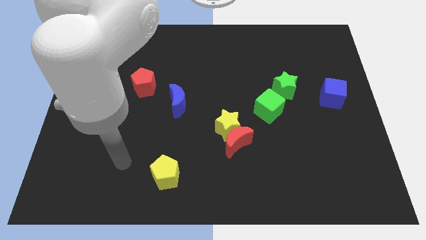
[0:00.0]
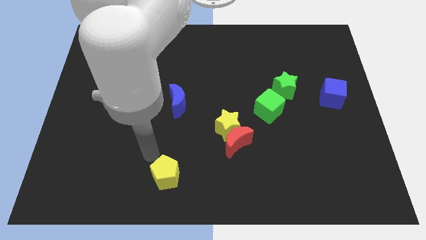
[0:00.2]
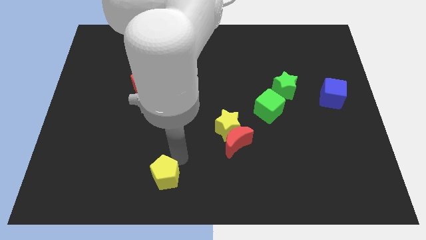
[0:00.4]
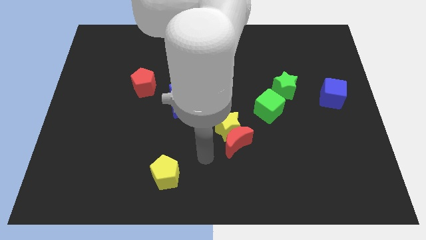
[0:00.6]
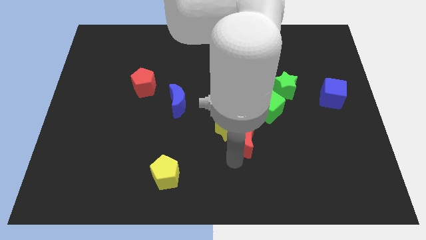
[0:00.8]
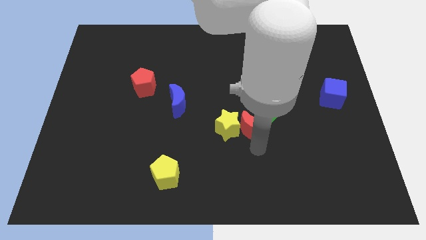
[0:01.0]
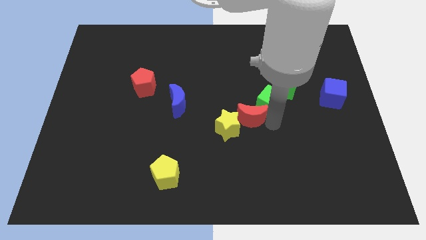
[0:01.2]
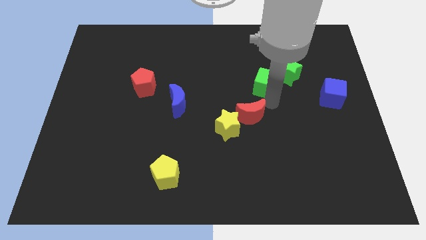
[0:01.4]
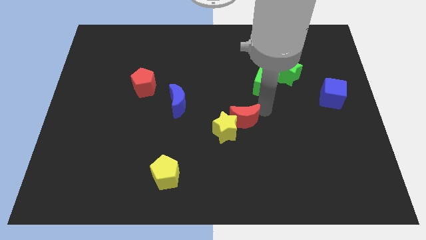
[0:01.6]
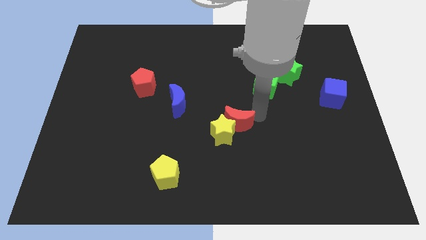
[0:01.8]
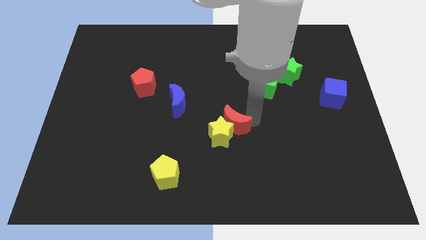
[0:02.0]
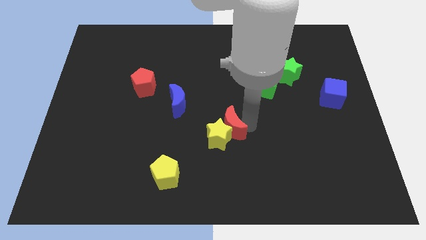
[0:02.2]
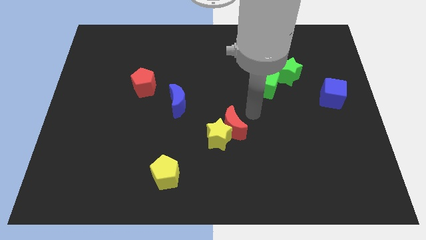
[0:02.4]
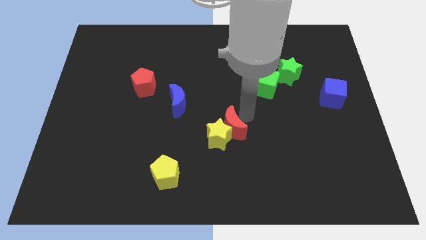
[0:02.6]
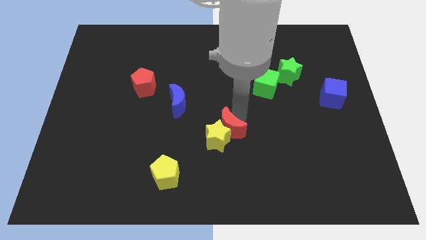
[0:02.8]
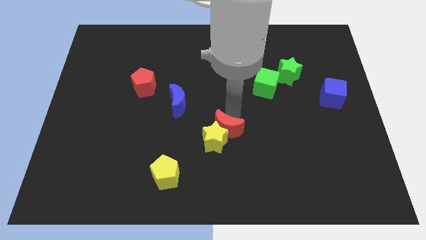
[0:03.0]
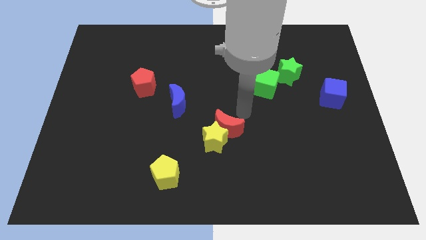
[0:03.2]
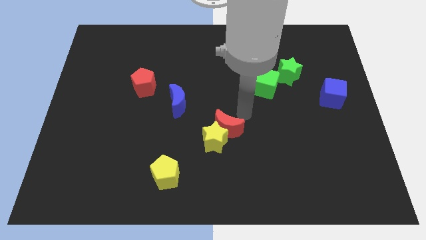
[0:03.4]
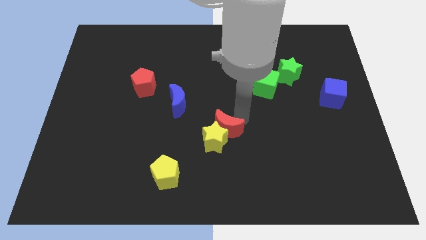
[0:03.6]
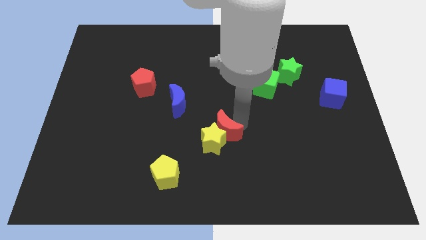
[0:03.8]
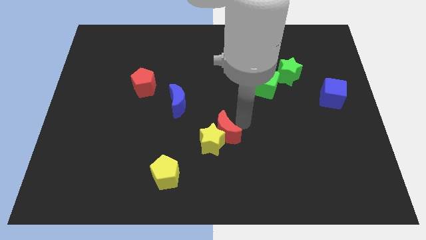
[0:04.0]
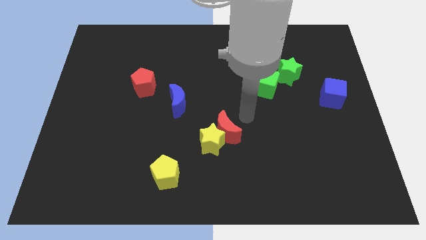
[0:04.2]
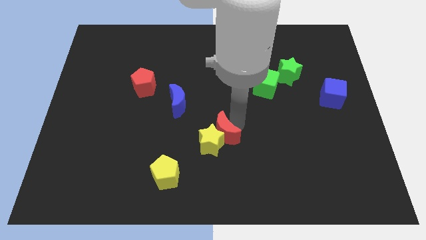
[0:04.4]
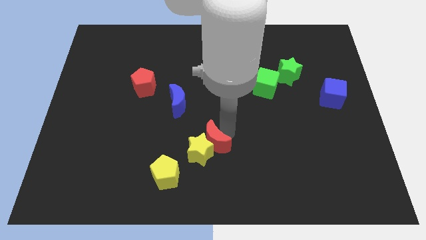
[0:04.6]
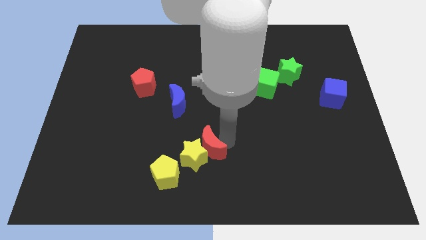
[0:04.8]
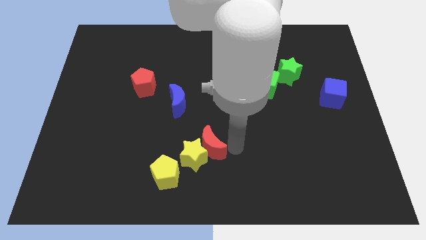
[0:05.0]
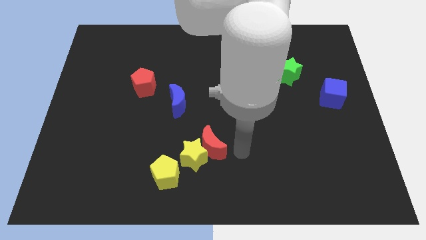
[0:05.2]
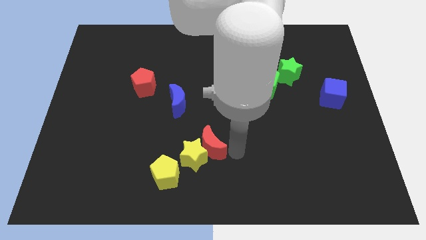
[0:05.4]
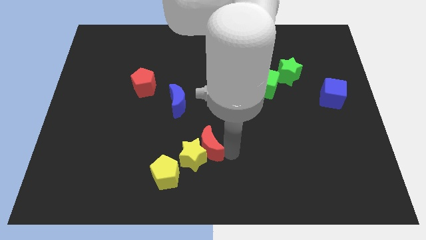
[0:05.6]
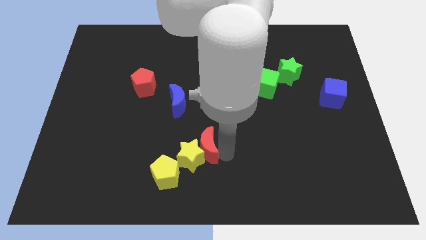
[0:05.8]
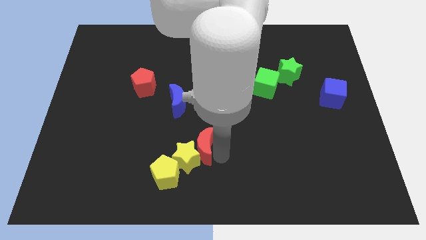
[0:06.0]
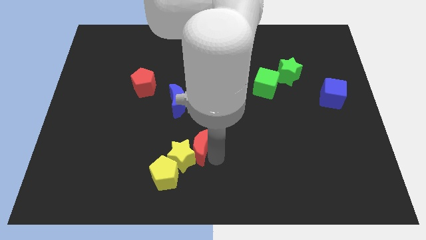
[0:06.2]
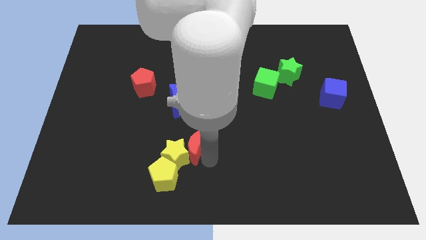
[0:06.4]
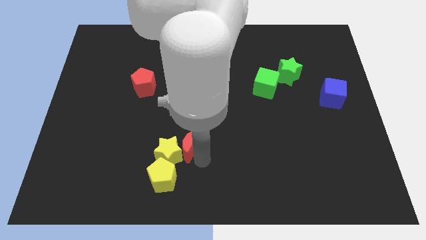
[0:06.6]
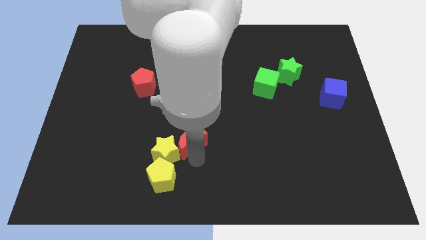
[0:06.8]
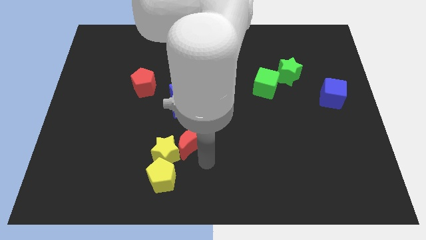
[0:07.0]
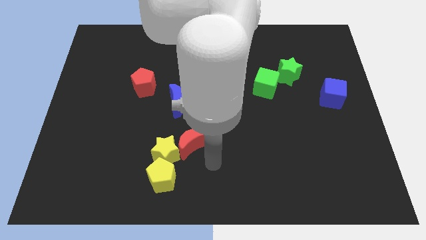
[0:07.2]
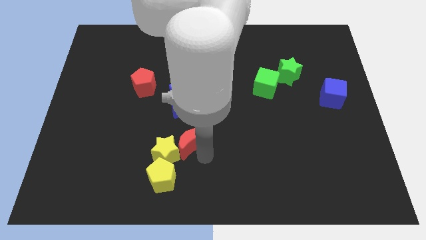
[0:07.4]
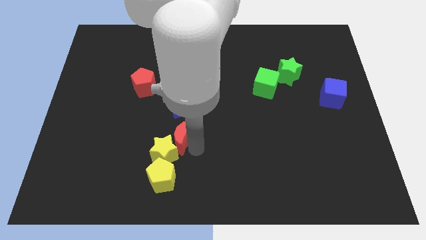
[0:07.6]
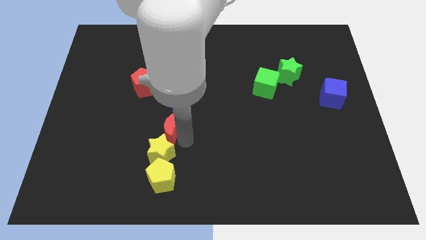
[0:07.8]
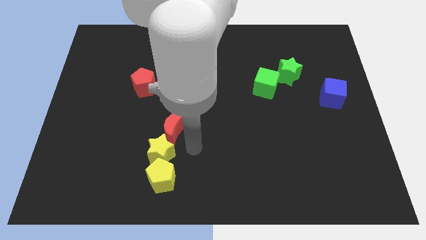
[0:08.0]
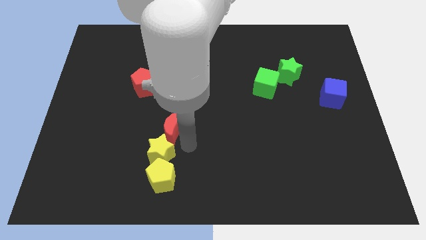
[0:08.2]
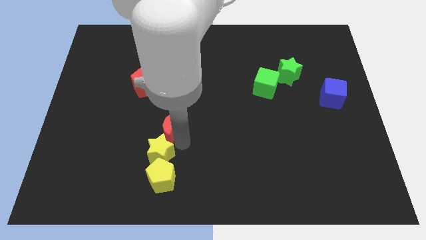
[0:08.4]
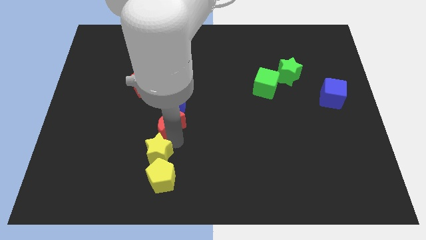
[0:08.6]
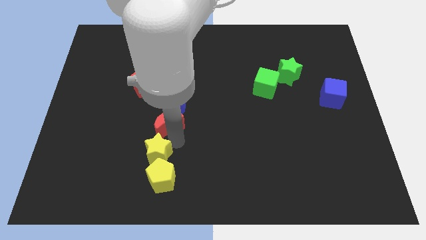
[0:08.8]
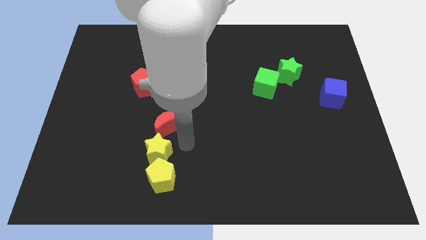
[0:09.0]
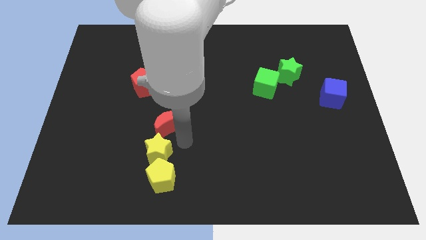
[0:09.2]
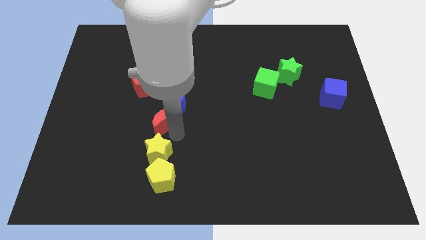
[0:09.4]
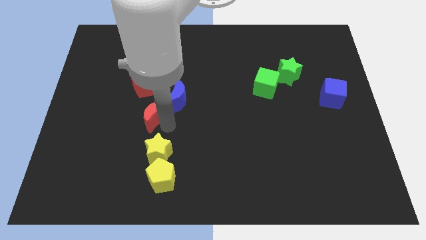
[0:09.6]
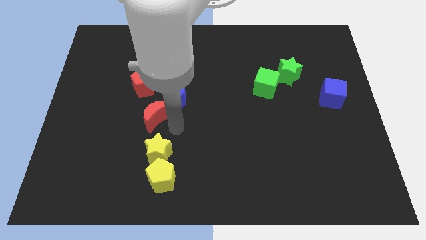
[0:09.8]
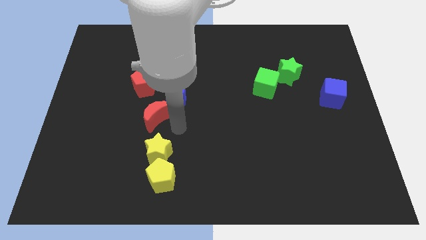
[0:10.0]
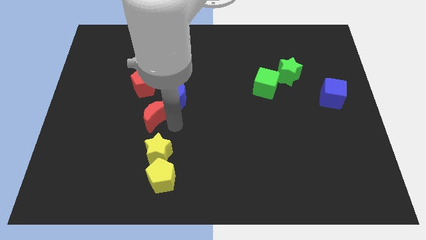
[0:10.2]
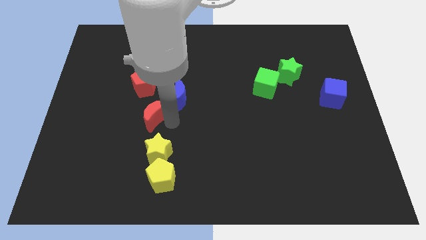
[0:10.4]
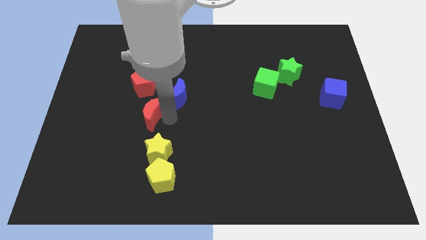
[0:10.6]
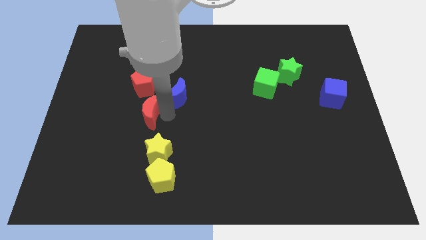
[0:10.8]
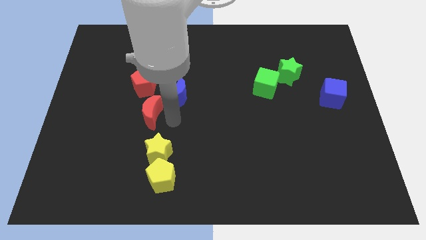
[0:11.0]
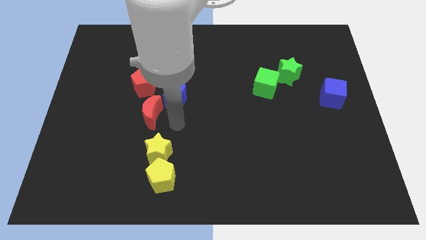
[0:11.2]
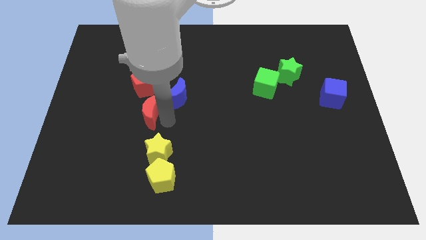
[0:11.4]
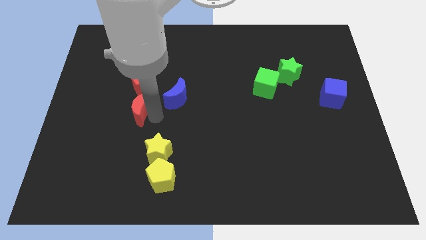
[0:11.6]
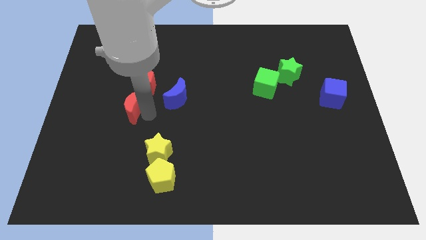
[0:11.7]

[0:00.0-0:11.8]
slide the red moon to the bottom left side of the red pentagon

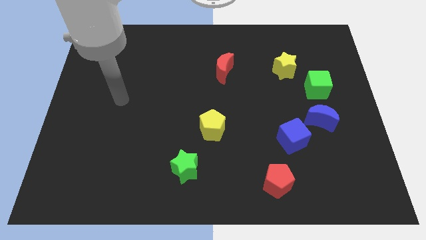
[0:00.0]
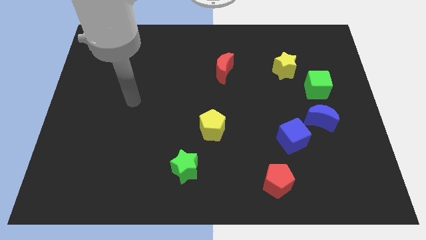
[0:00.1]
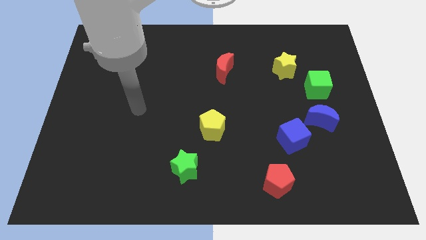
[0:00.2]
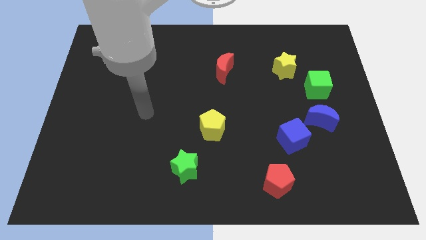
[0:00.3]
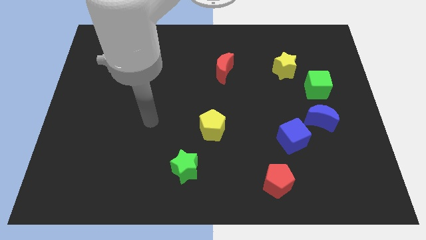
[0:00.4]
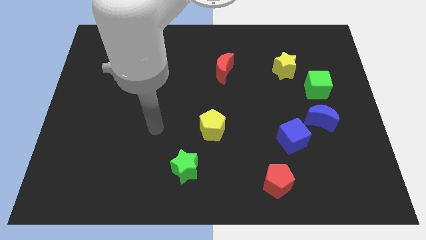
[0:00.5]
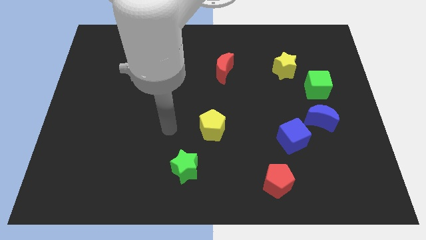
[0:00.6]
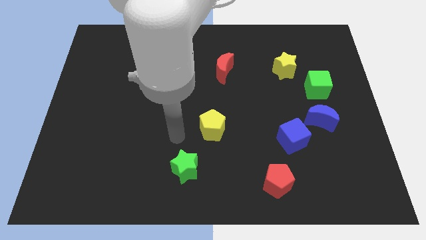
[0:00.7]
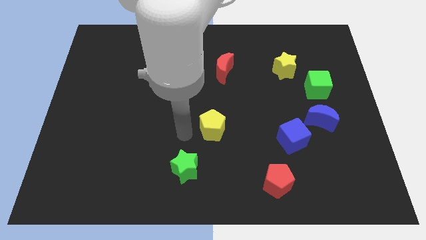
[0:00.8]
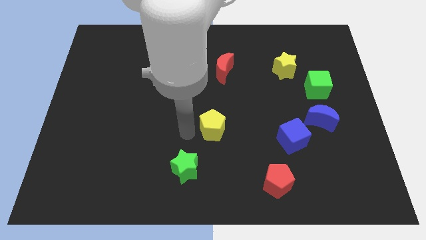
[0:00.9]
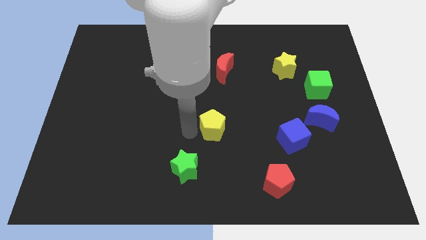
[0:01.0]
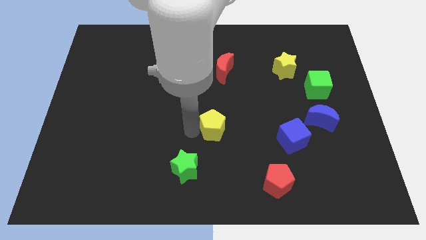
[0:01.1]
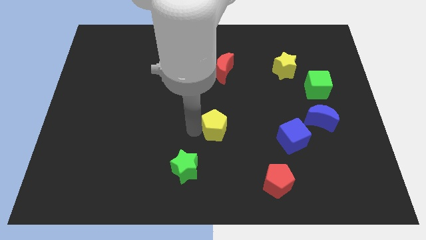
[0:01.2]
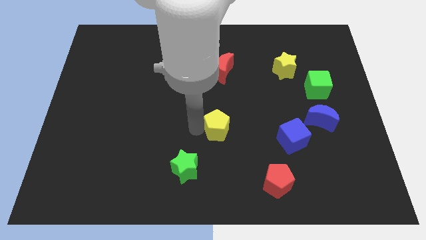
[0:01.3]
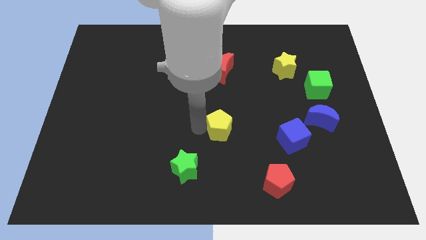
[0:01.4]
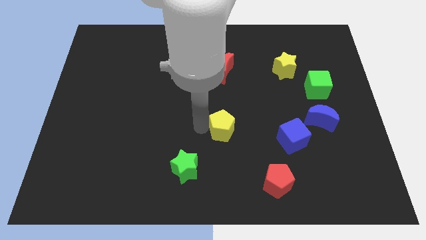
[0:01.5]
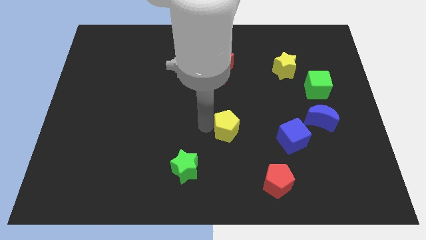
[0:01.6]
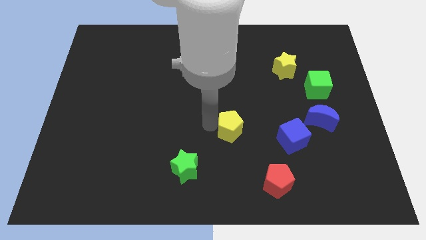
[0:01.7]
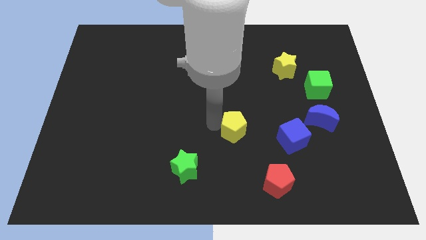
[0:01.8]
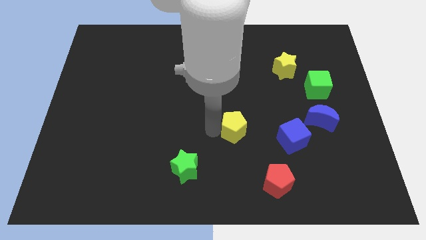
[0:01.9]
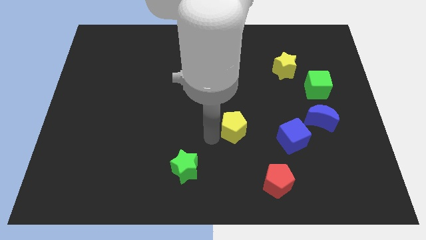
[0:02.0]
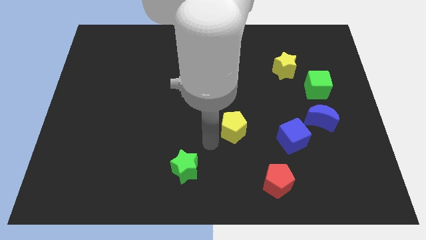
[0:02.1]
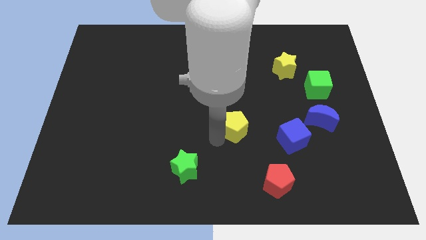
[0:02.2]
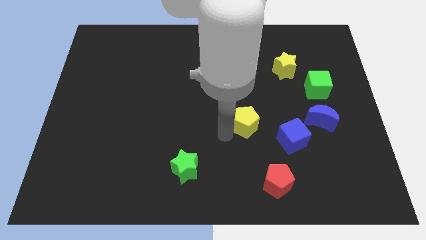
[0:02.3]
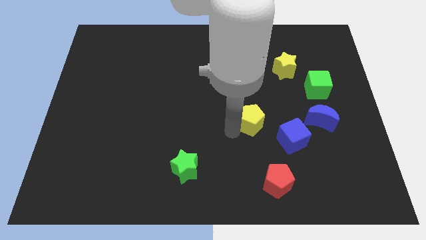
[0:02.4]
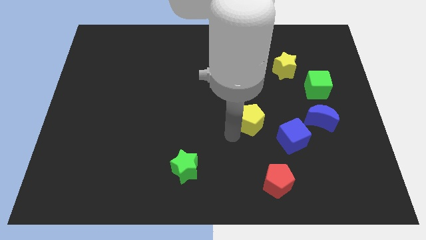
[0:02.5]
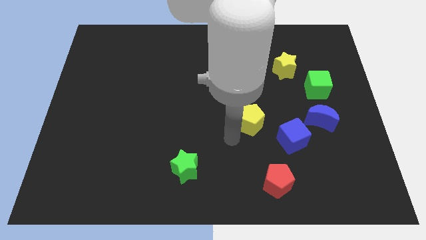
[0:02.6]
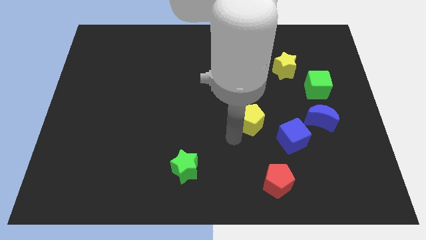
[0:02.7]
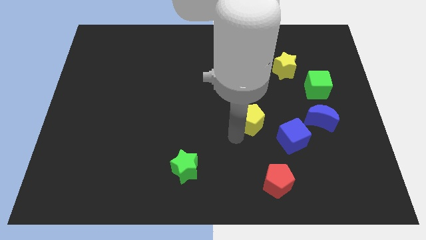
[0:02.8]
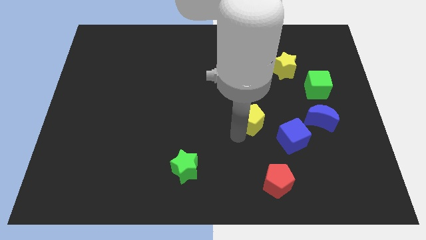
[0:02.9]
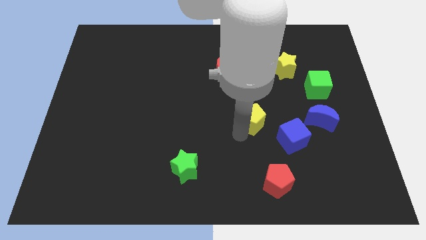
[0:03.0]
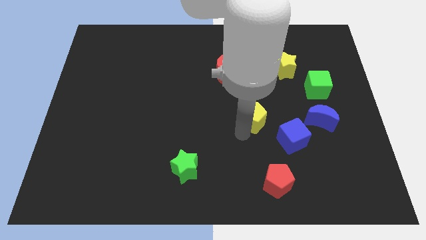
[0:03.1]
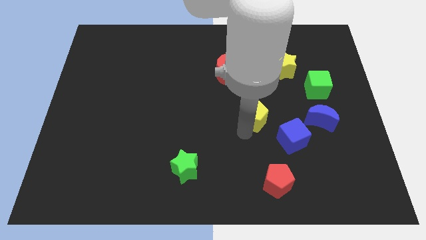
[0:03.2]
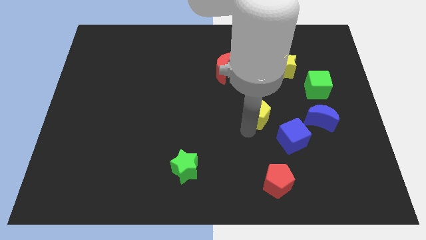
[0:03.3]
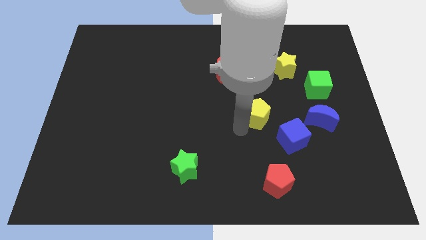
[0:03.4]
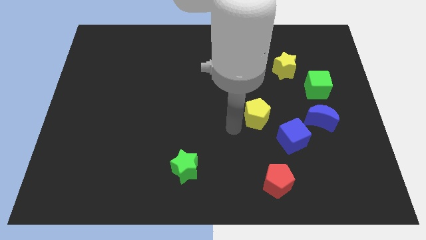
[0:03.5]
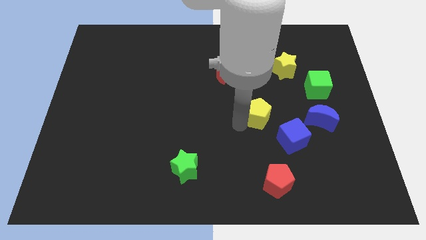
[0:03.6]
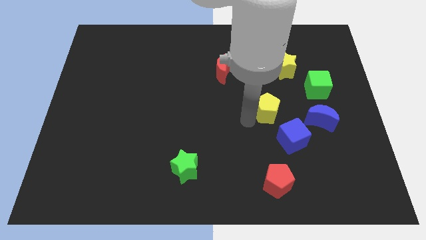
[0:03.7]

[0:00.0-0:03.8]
move the yellow pentagon to the top side of the blue cube
